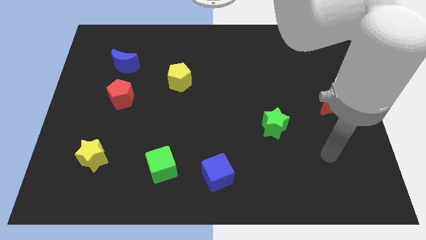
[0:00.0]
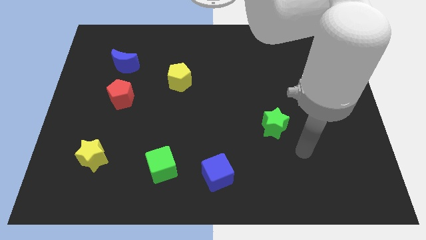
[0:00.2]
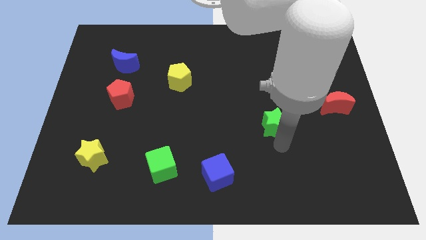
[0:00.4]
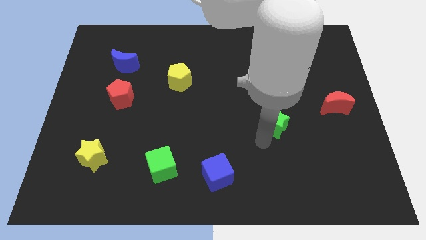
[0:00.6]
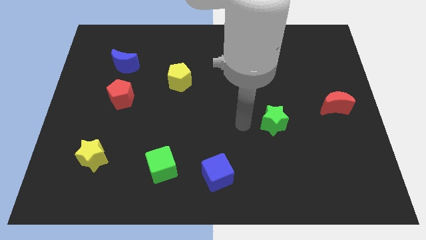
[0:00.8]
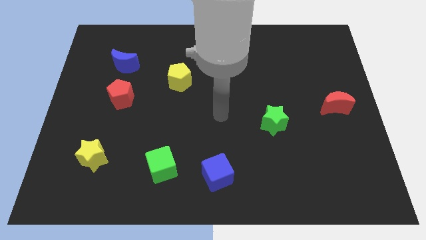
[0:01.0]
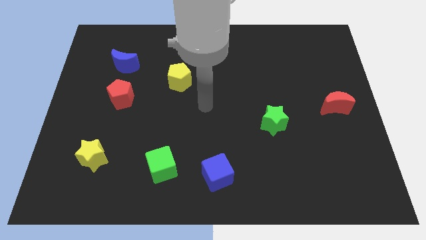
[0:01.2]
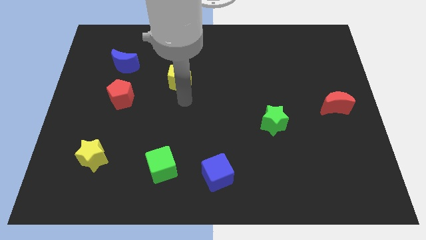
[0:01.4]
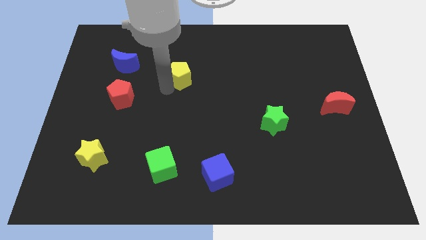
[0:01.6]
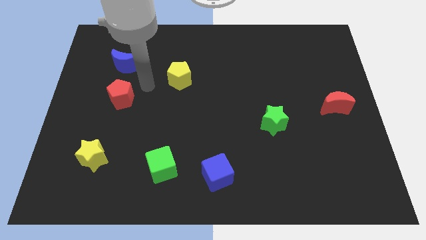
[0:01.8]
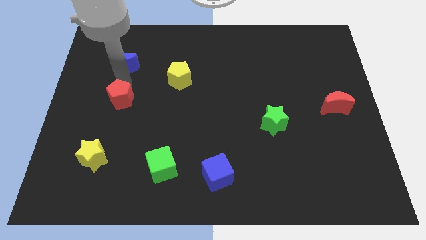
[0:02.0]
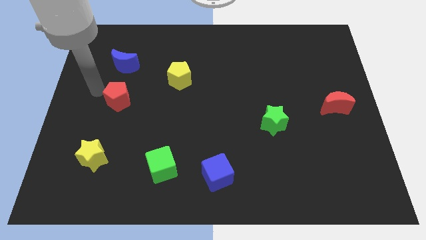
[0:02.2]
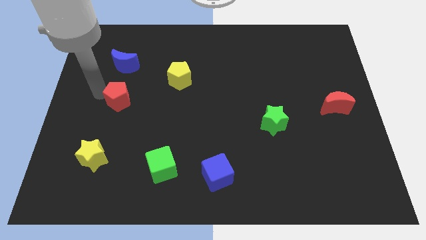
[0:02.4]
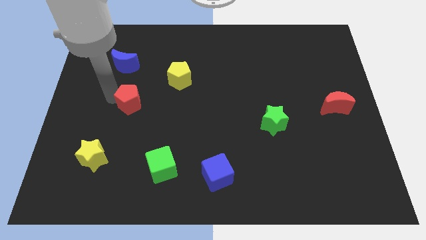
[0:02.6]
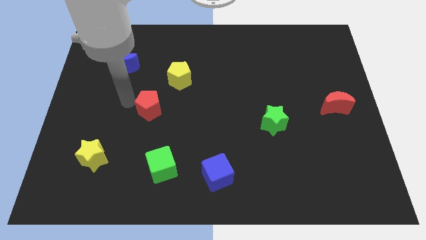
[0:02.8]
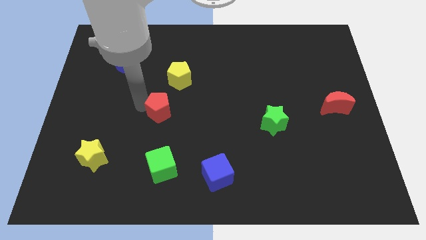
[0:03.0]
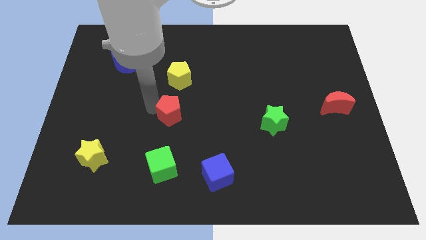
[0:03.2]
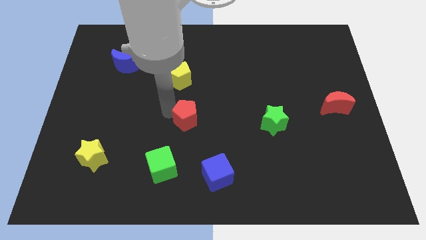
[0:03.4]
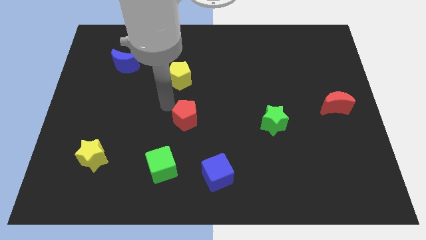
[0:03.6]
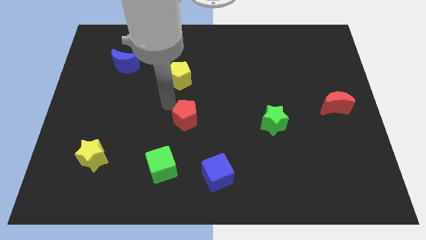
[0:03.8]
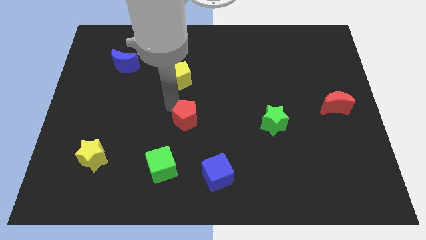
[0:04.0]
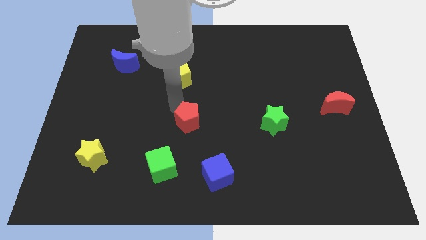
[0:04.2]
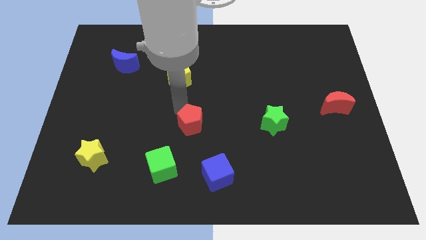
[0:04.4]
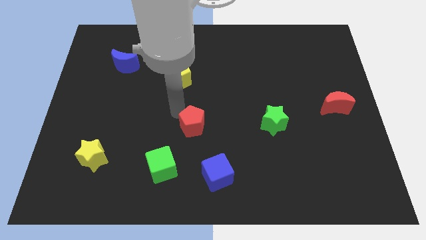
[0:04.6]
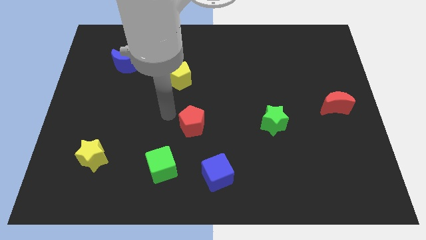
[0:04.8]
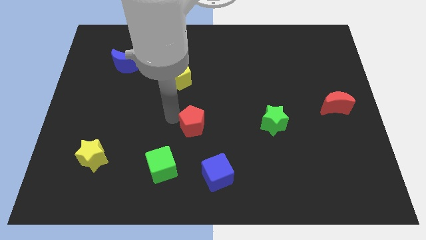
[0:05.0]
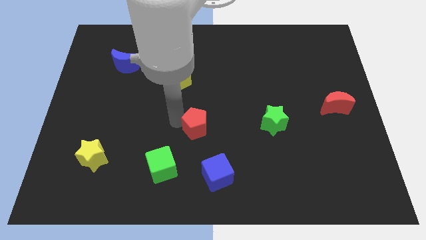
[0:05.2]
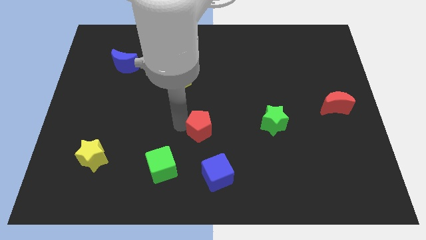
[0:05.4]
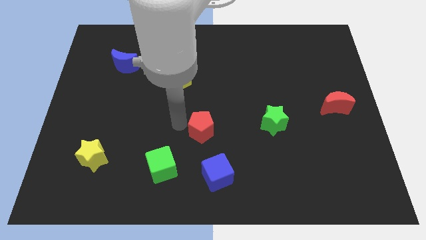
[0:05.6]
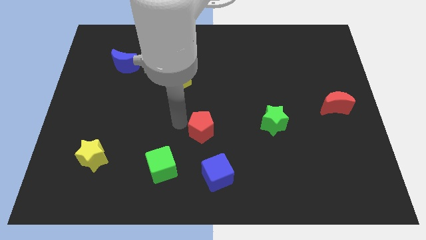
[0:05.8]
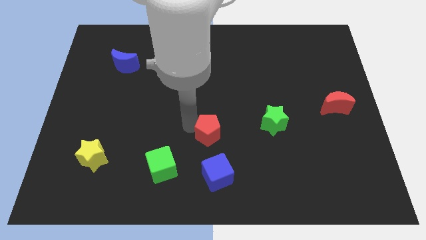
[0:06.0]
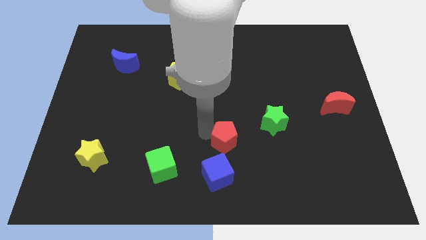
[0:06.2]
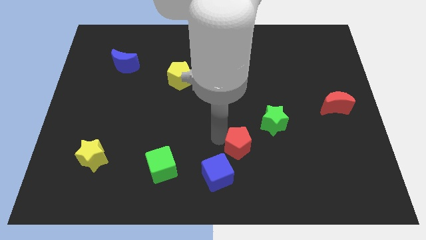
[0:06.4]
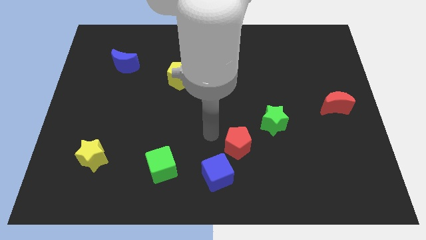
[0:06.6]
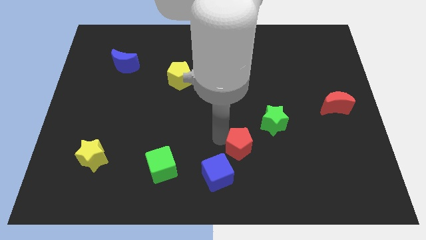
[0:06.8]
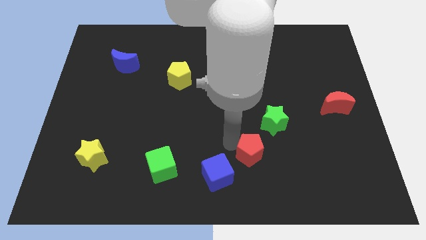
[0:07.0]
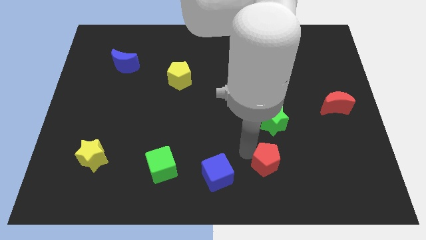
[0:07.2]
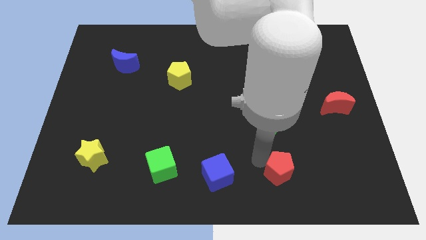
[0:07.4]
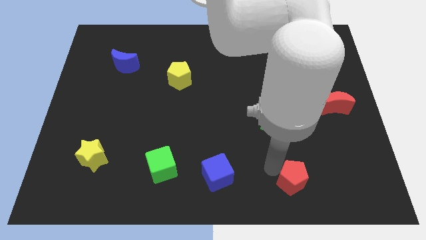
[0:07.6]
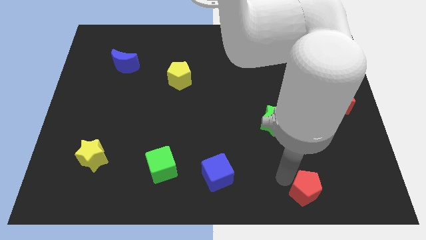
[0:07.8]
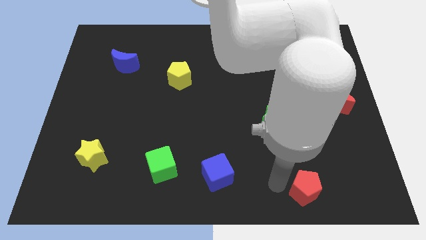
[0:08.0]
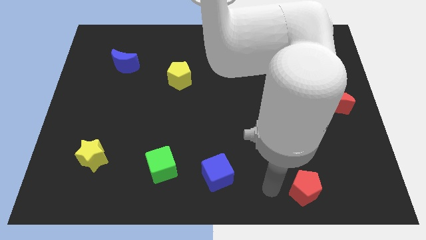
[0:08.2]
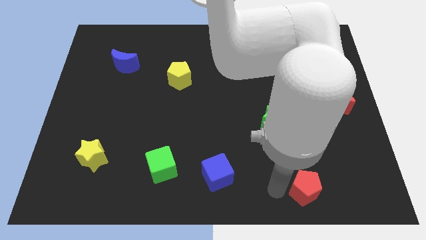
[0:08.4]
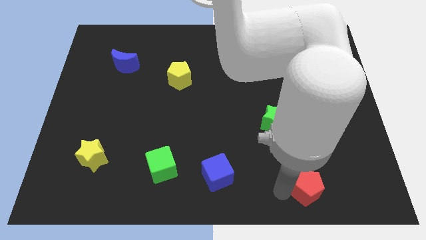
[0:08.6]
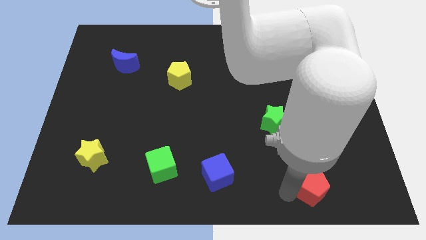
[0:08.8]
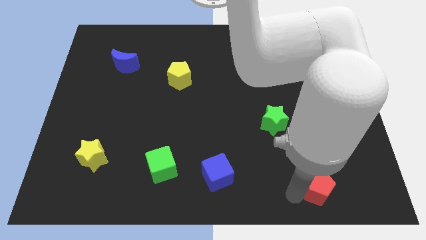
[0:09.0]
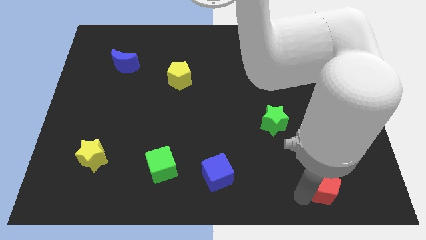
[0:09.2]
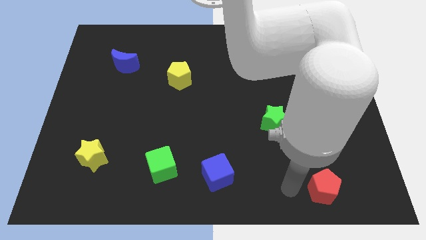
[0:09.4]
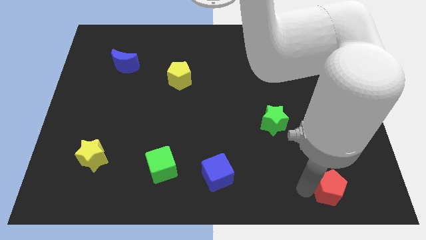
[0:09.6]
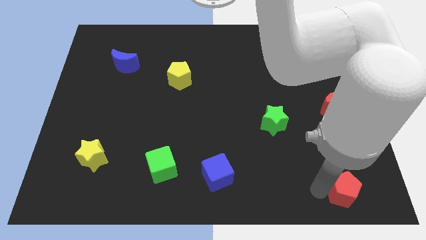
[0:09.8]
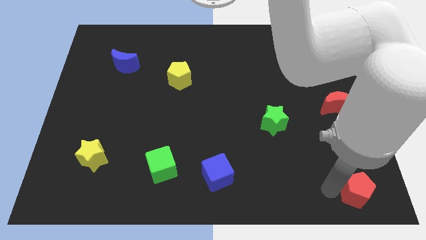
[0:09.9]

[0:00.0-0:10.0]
slide the red pentagon to the lower right corner
